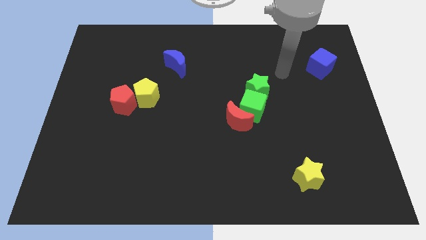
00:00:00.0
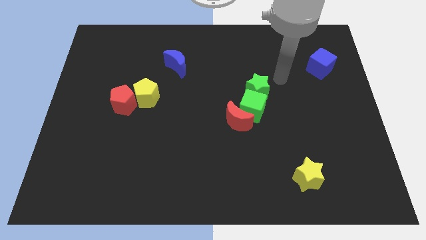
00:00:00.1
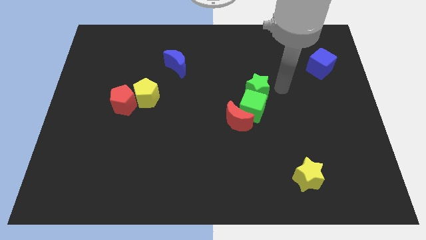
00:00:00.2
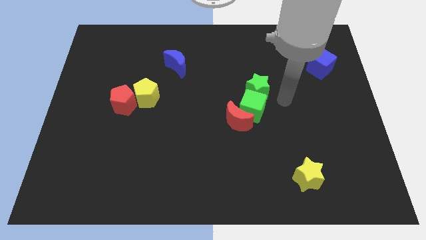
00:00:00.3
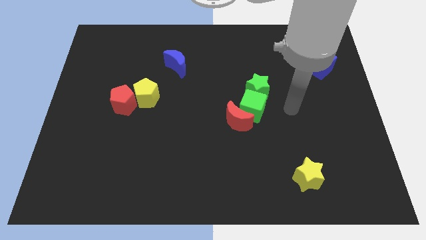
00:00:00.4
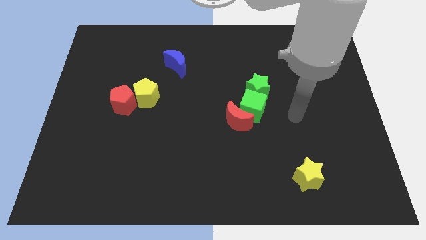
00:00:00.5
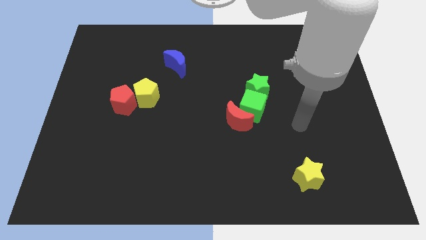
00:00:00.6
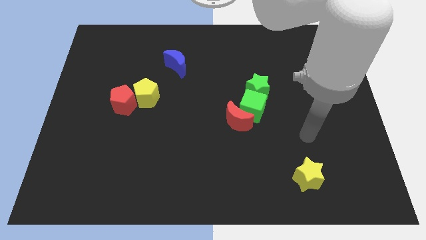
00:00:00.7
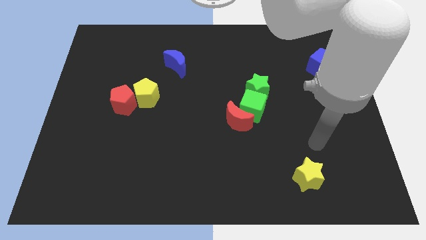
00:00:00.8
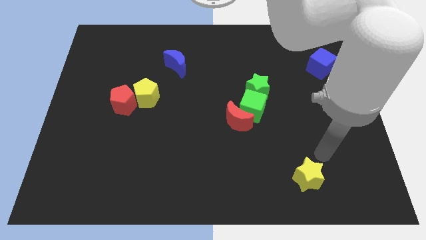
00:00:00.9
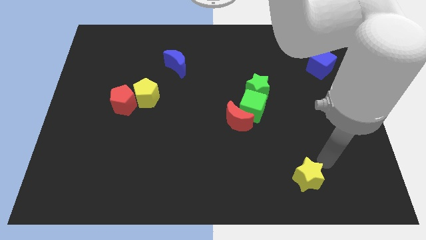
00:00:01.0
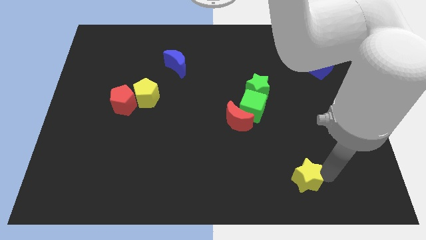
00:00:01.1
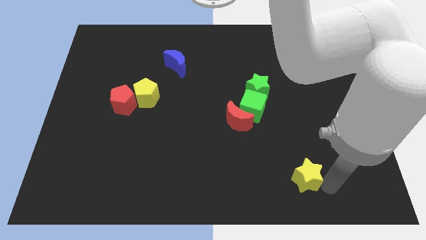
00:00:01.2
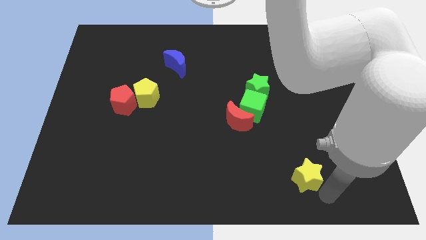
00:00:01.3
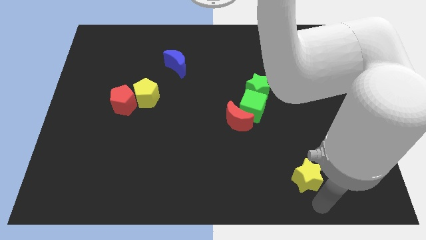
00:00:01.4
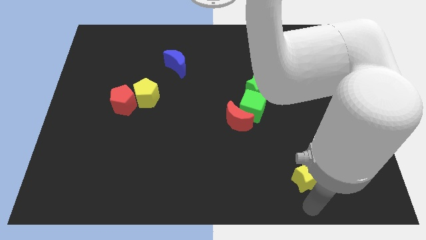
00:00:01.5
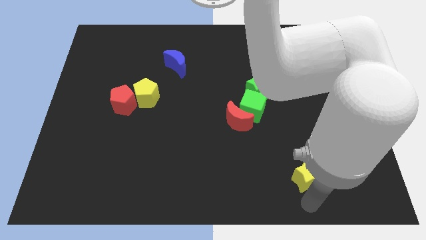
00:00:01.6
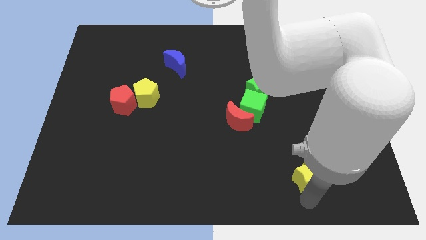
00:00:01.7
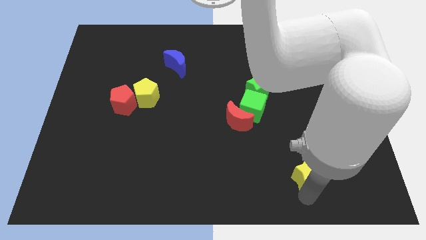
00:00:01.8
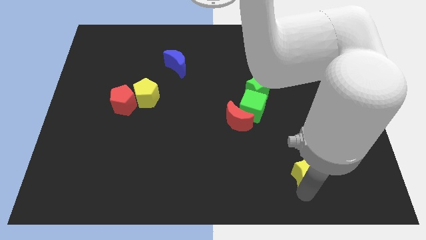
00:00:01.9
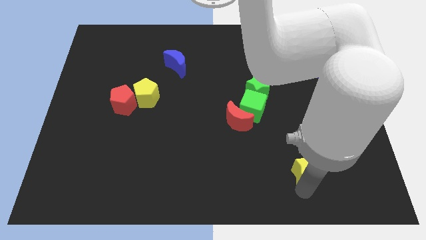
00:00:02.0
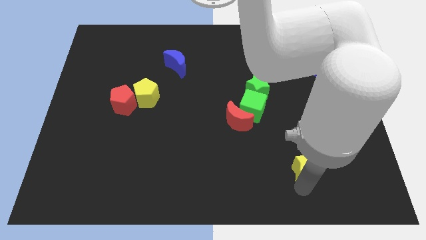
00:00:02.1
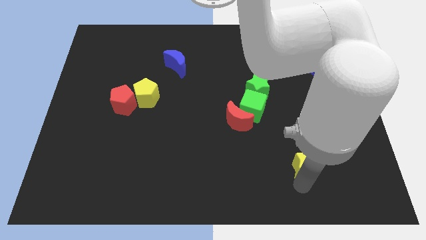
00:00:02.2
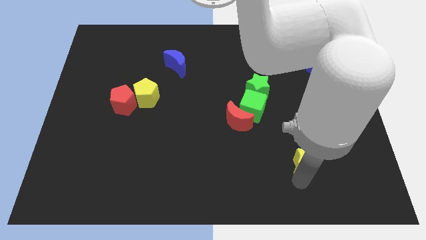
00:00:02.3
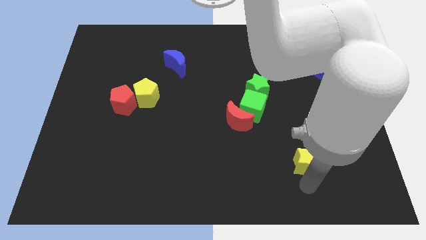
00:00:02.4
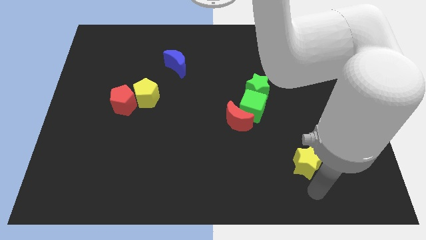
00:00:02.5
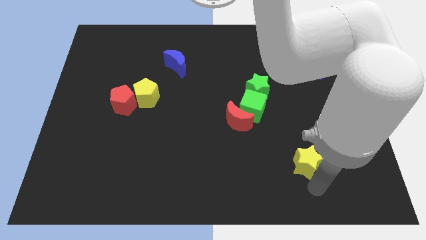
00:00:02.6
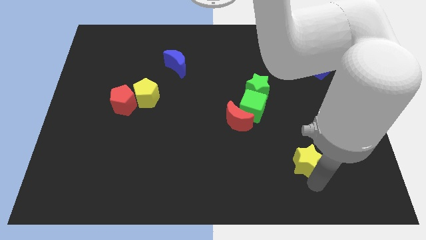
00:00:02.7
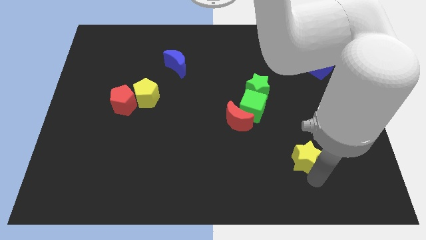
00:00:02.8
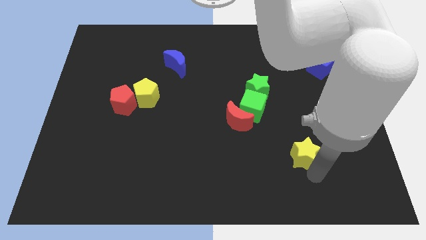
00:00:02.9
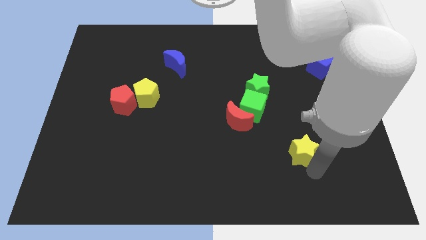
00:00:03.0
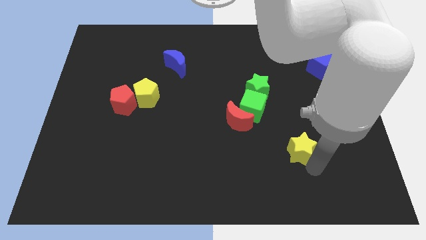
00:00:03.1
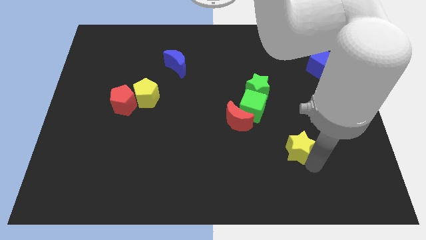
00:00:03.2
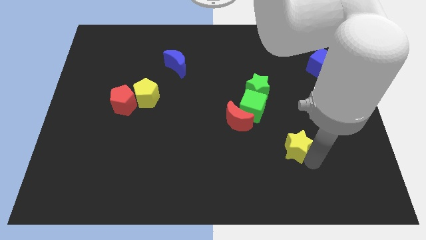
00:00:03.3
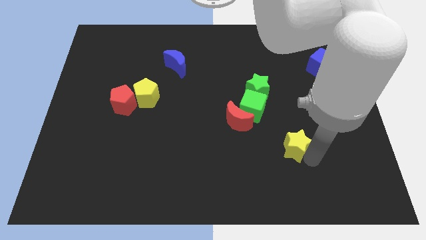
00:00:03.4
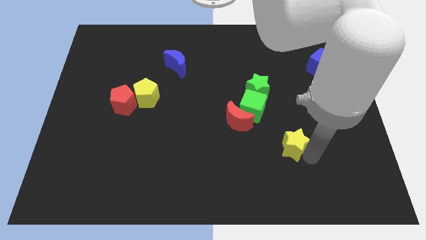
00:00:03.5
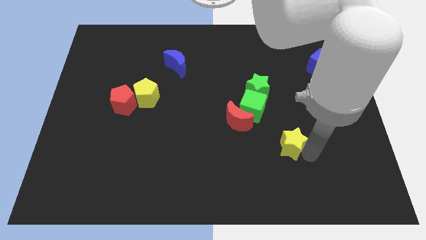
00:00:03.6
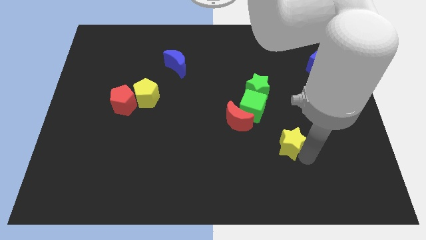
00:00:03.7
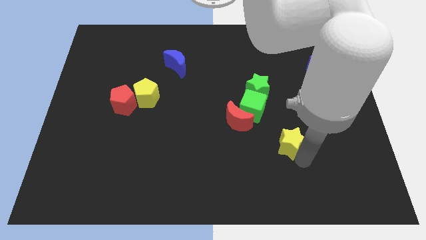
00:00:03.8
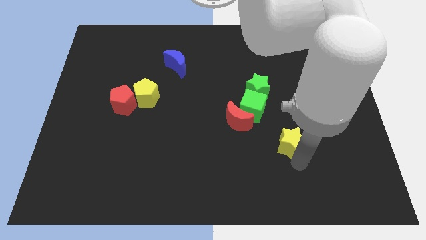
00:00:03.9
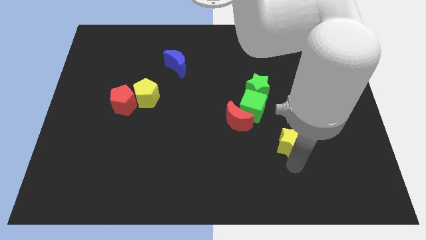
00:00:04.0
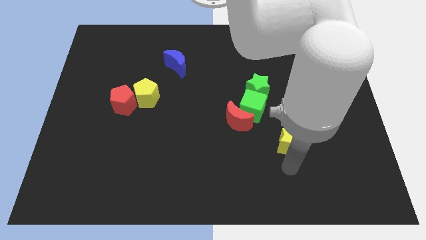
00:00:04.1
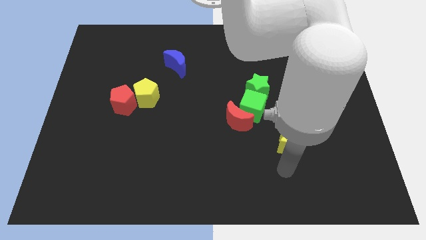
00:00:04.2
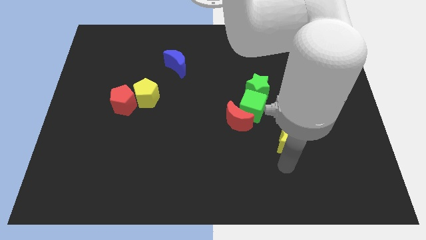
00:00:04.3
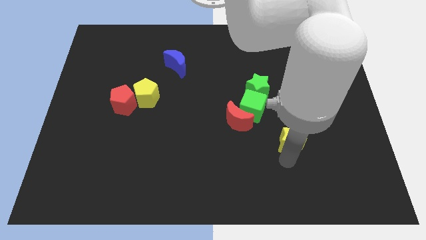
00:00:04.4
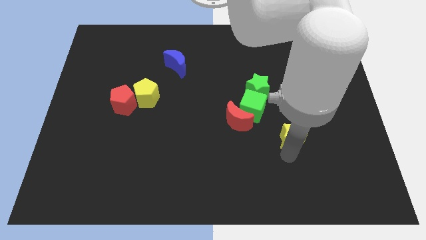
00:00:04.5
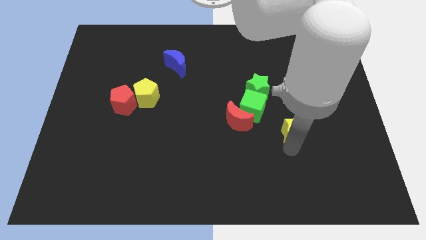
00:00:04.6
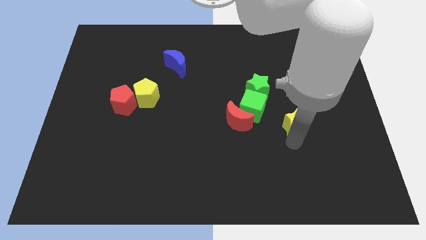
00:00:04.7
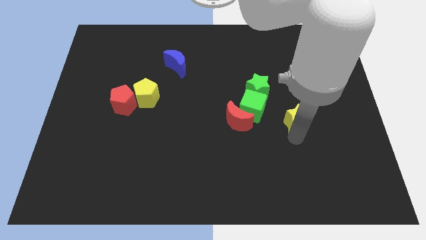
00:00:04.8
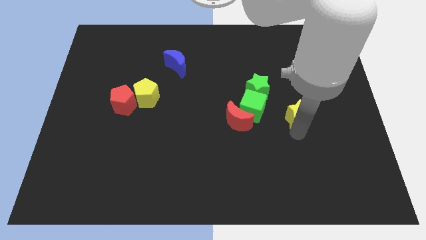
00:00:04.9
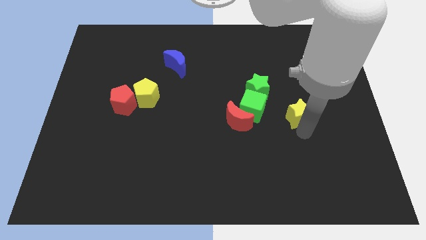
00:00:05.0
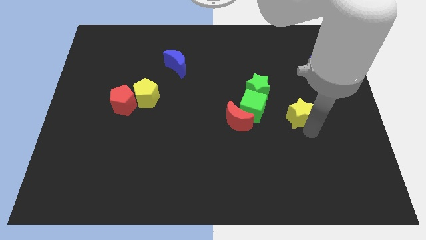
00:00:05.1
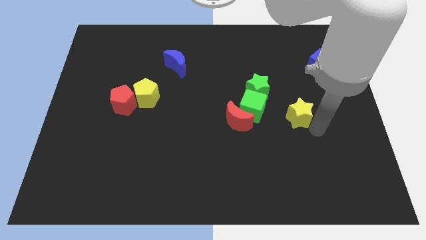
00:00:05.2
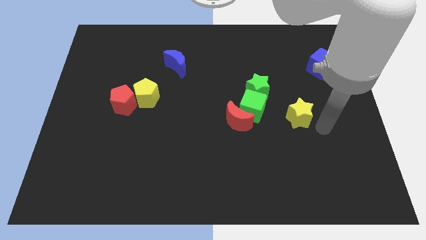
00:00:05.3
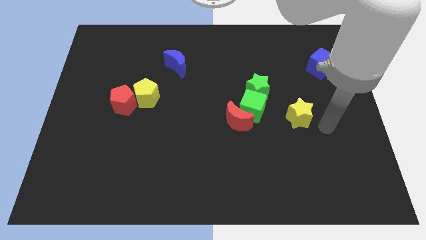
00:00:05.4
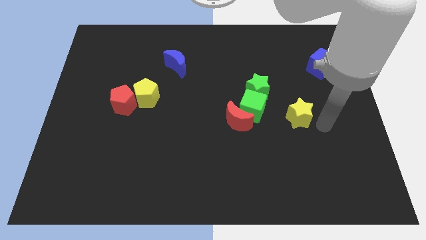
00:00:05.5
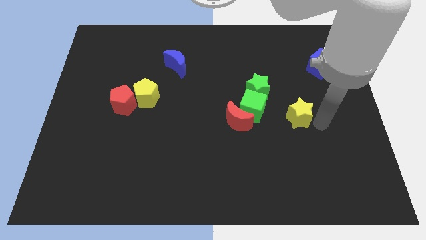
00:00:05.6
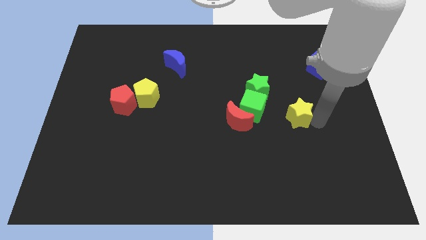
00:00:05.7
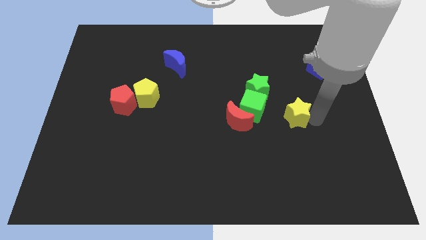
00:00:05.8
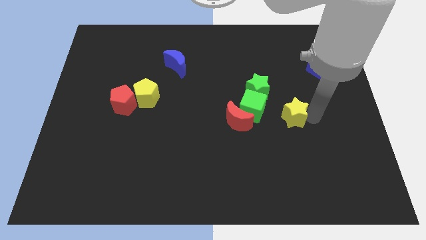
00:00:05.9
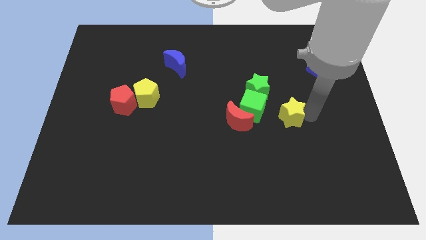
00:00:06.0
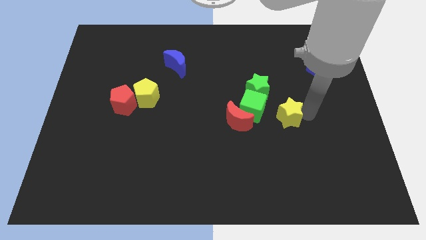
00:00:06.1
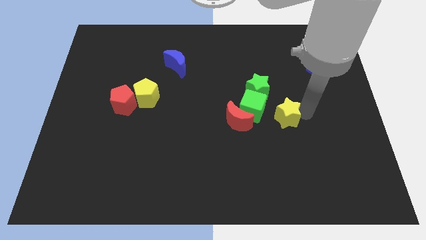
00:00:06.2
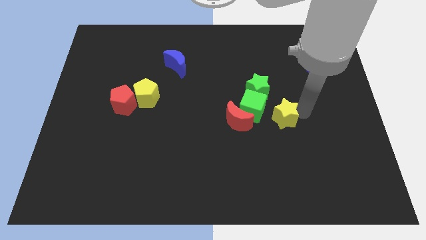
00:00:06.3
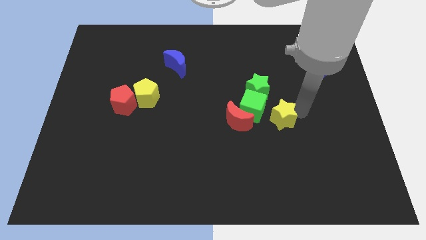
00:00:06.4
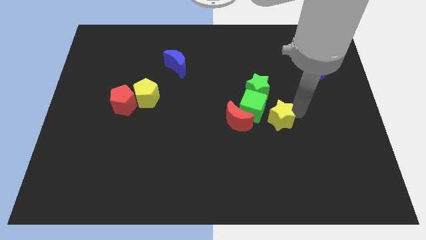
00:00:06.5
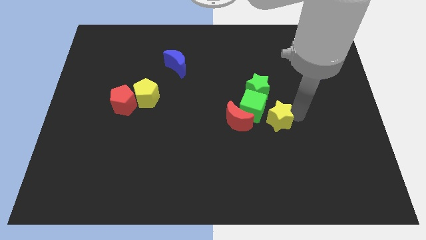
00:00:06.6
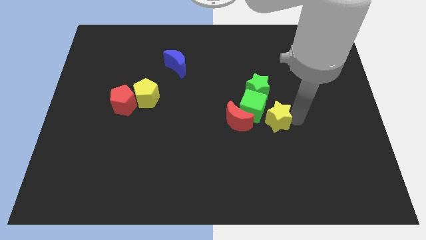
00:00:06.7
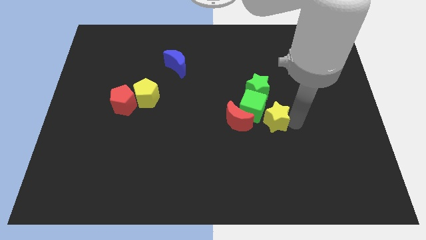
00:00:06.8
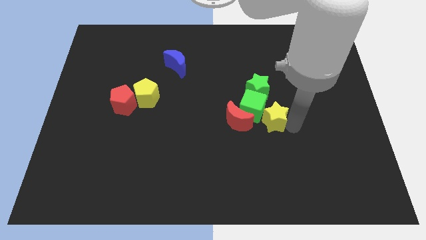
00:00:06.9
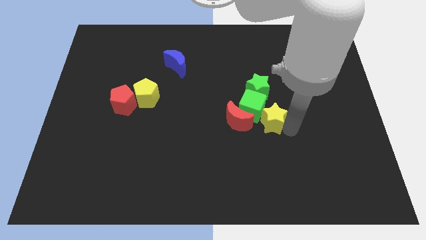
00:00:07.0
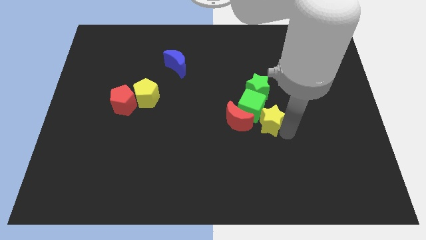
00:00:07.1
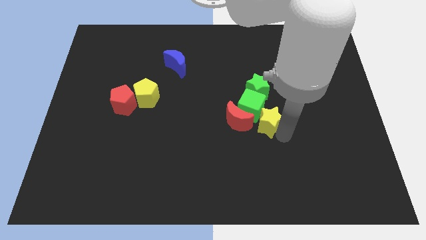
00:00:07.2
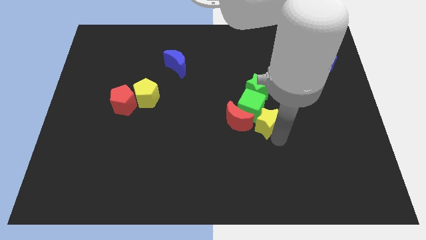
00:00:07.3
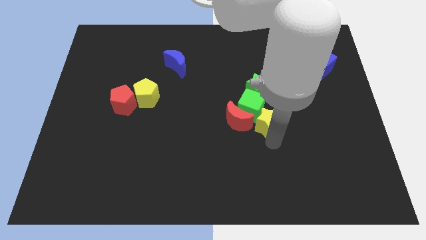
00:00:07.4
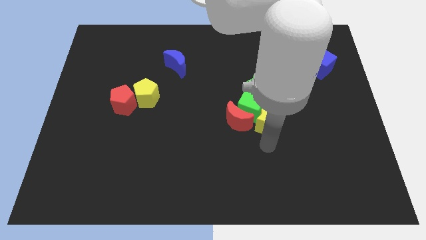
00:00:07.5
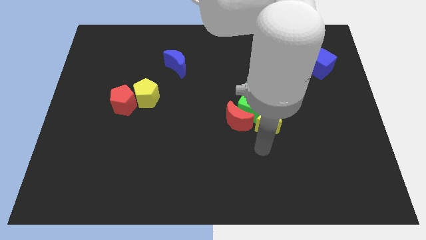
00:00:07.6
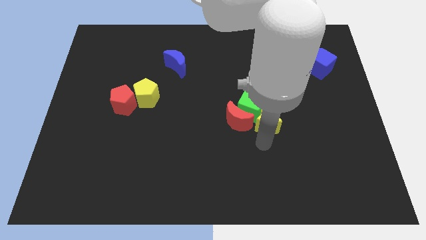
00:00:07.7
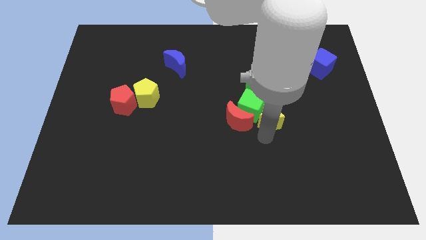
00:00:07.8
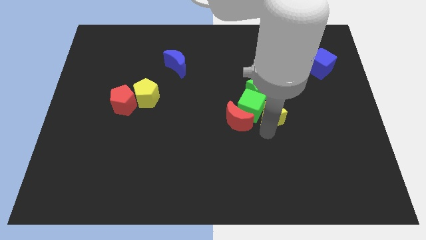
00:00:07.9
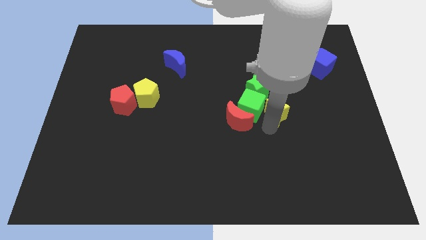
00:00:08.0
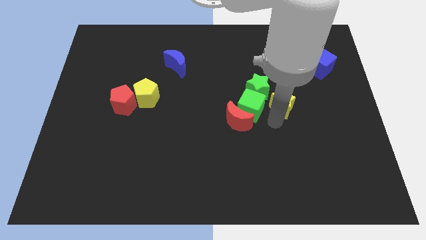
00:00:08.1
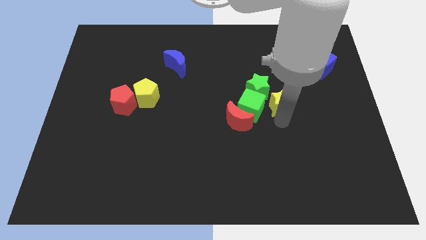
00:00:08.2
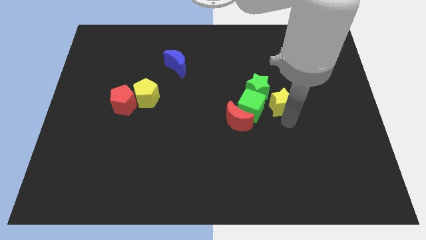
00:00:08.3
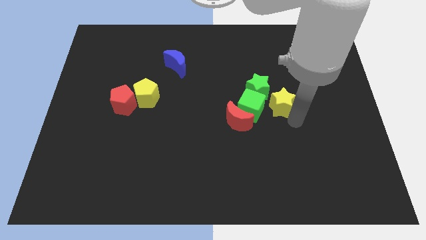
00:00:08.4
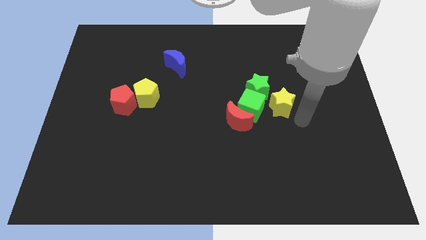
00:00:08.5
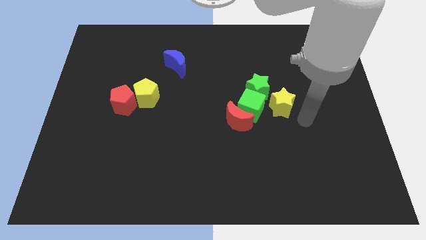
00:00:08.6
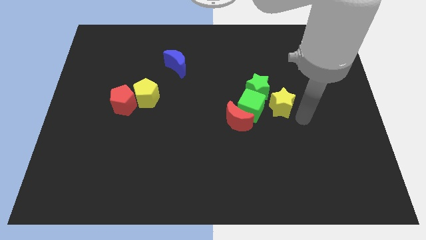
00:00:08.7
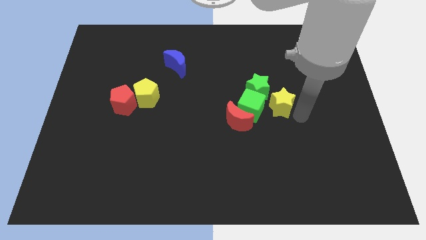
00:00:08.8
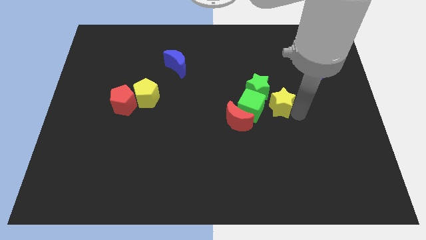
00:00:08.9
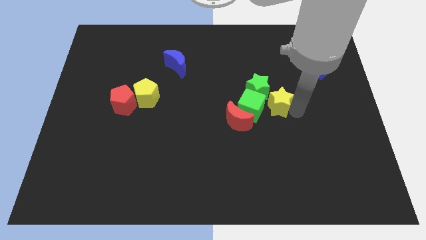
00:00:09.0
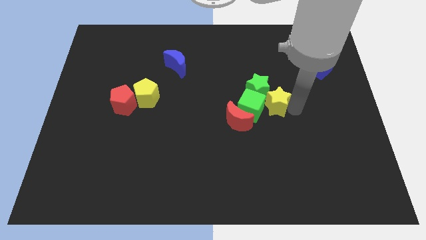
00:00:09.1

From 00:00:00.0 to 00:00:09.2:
move the yellow star close to the green star
